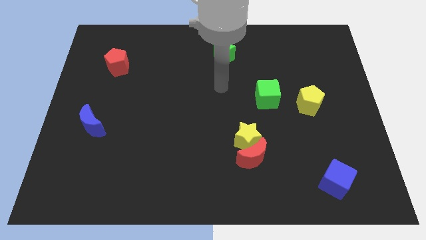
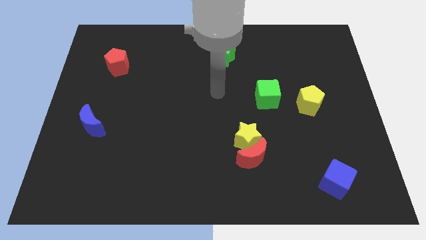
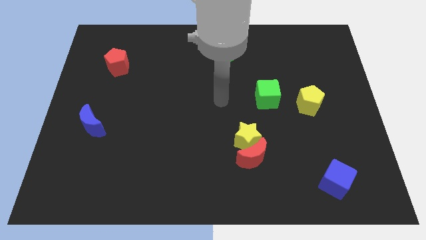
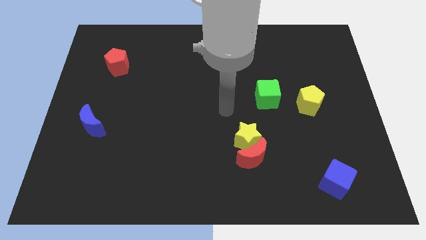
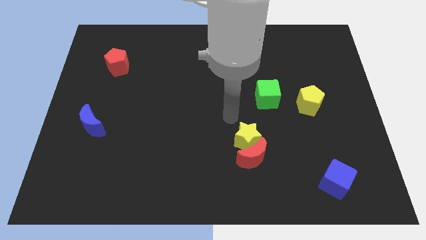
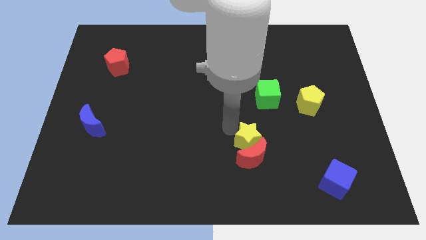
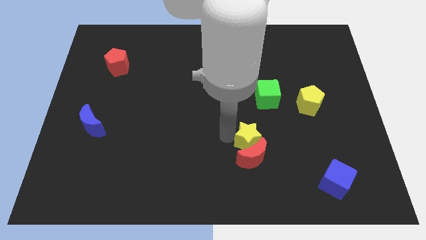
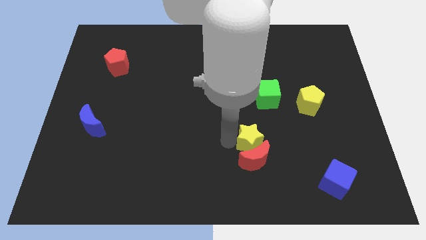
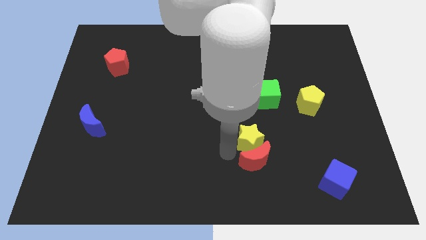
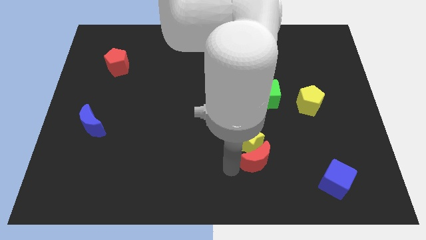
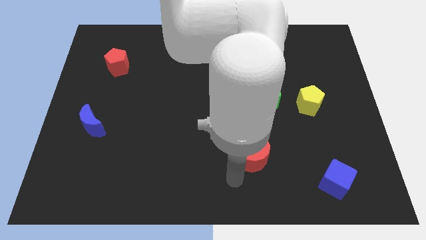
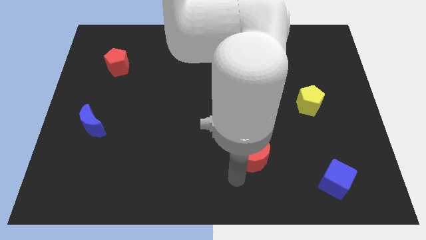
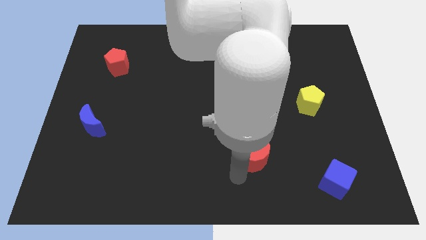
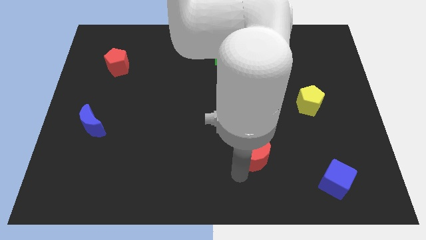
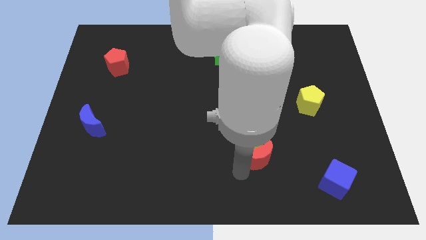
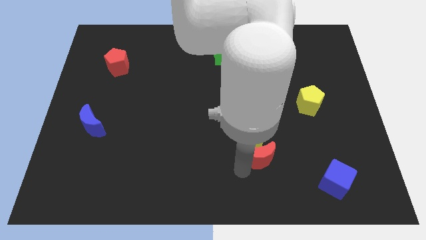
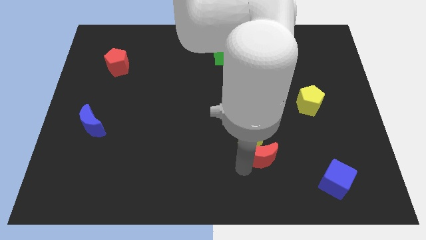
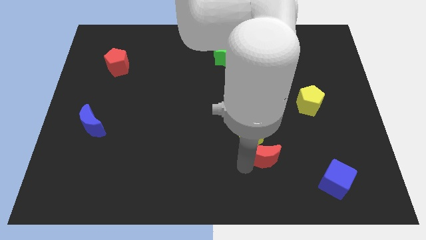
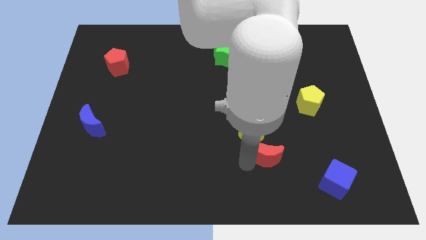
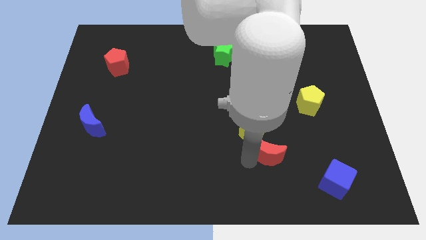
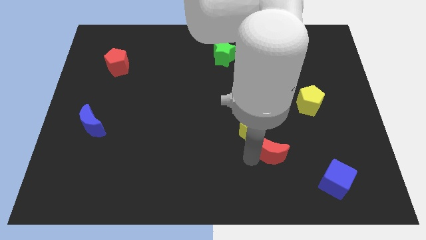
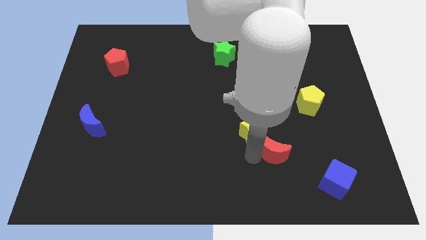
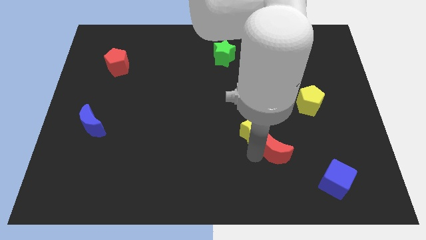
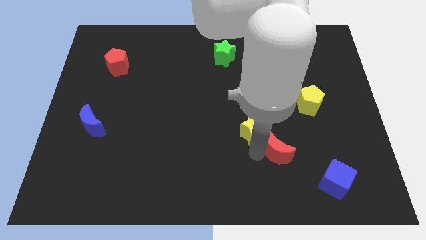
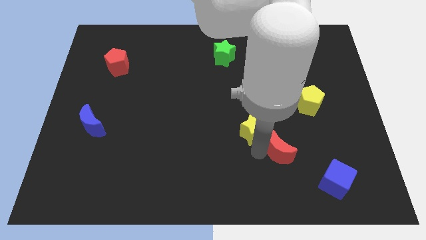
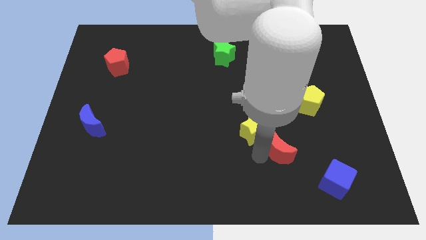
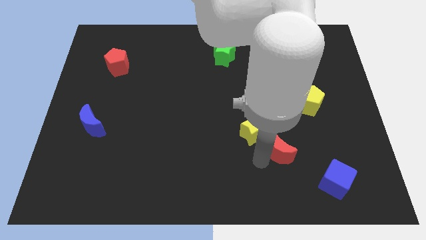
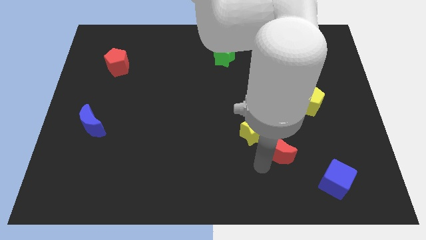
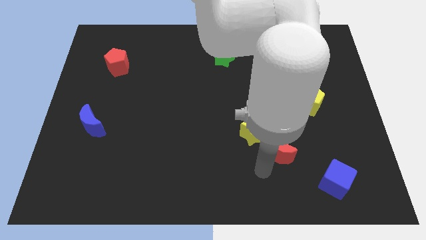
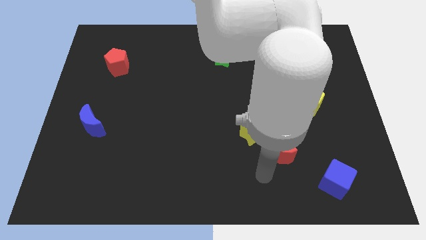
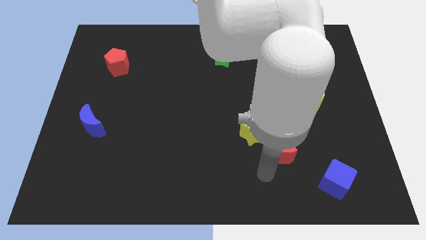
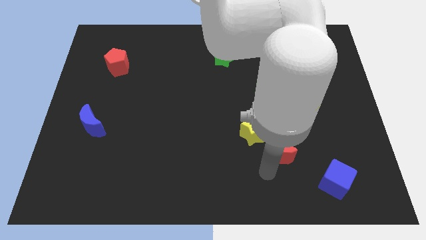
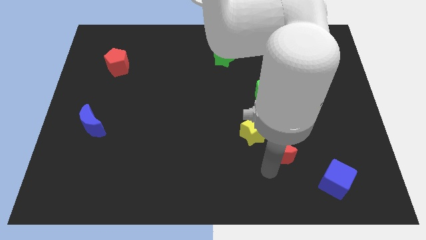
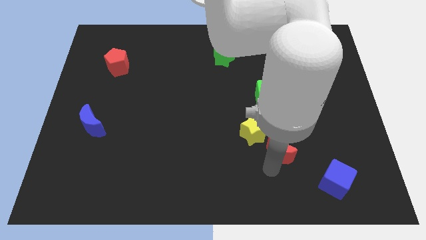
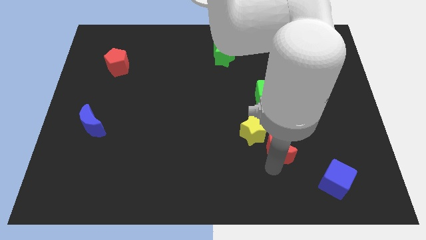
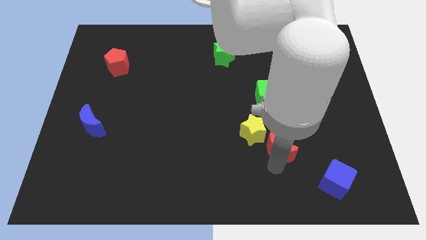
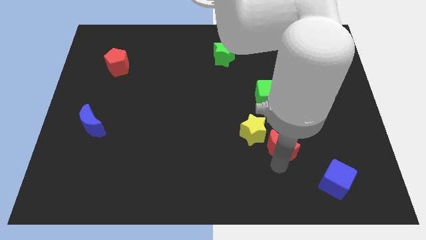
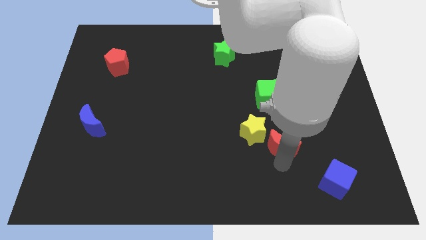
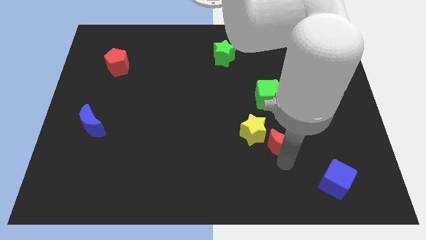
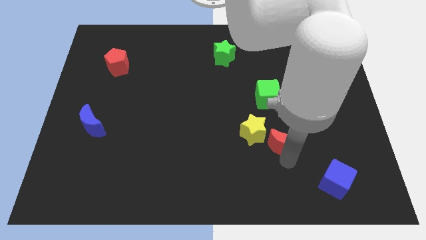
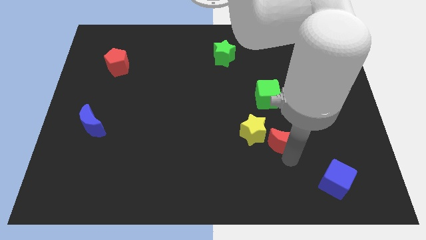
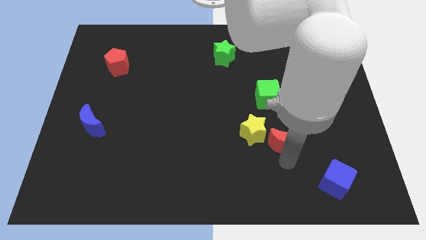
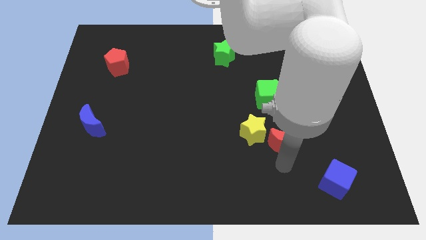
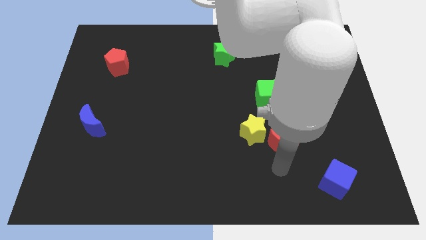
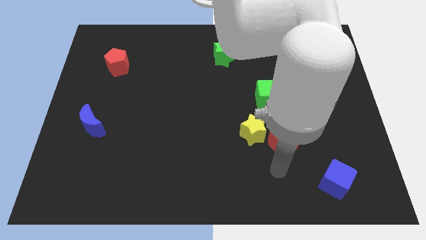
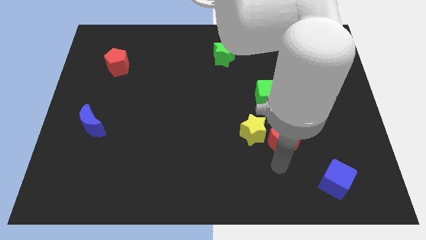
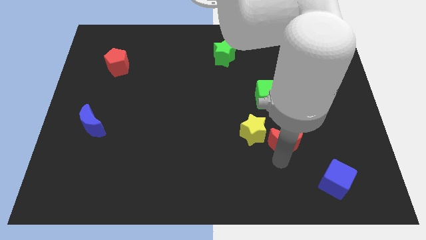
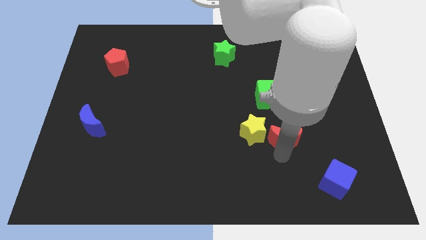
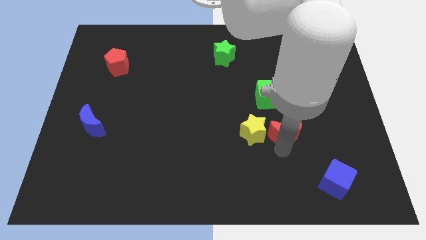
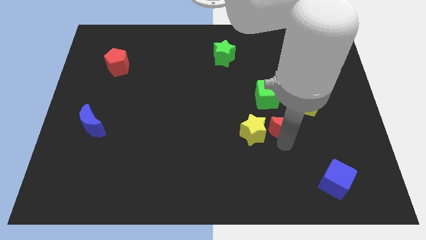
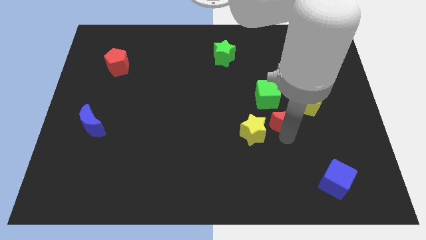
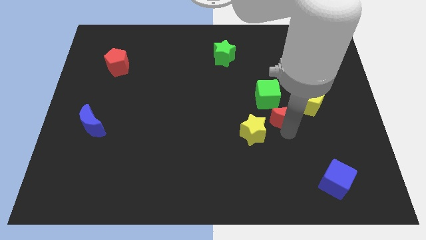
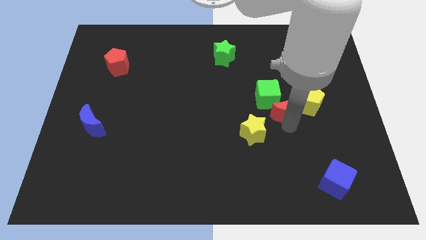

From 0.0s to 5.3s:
slide the red moon to the green cube

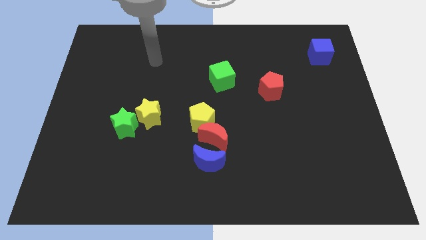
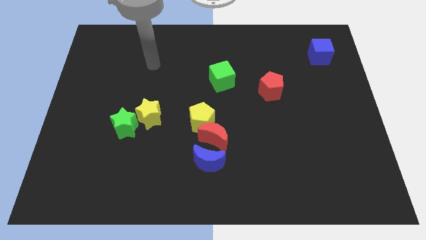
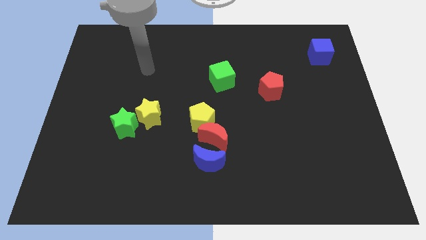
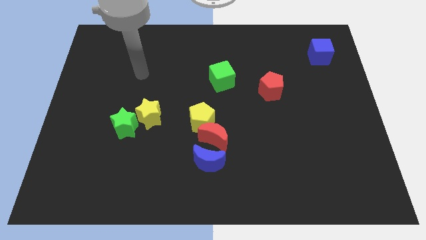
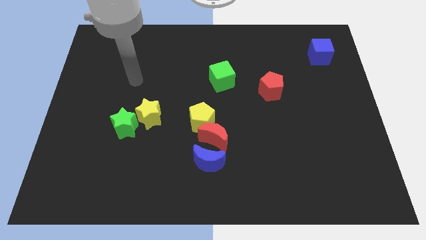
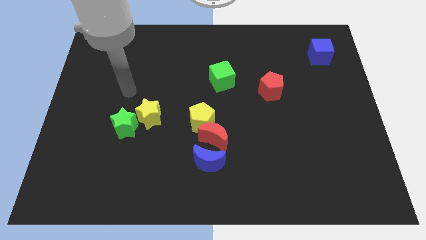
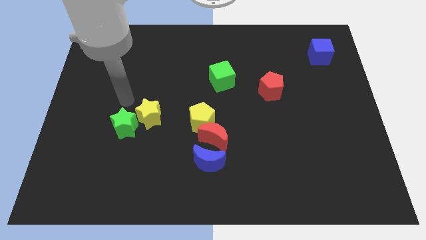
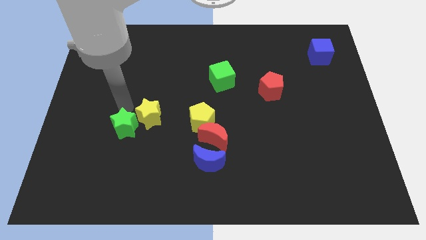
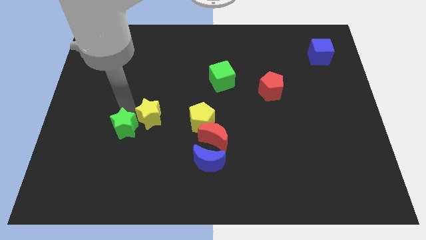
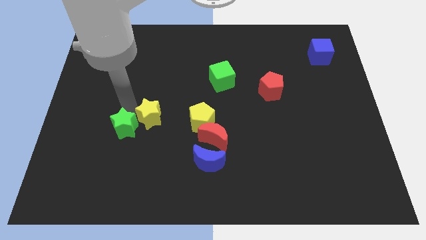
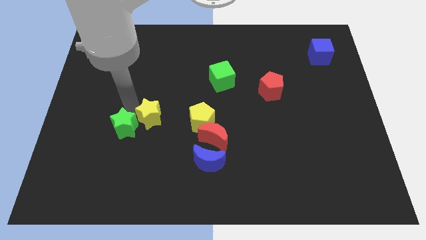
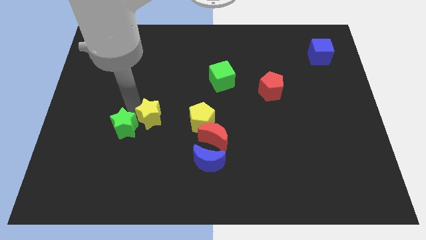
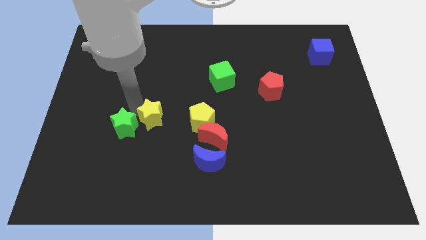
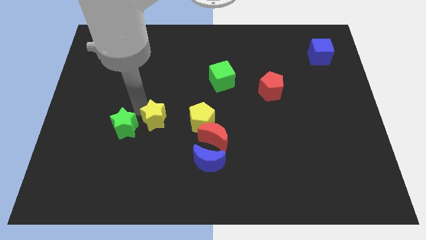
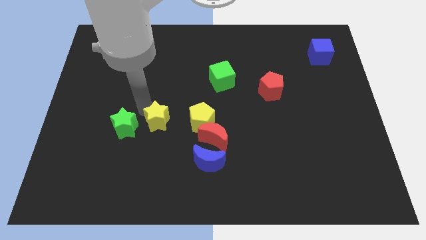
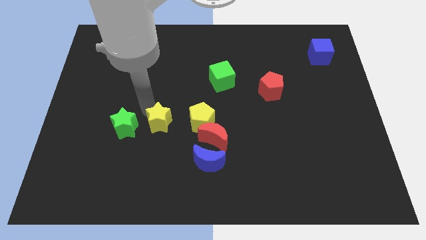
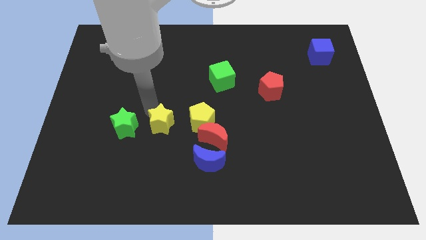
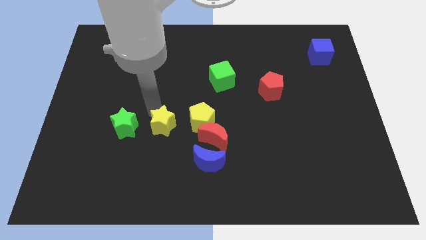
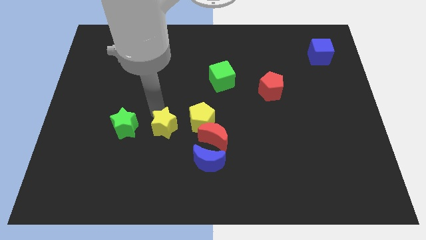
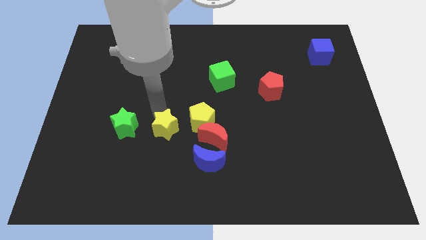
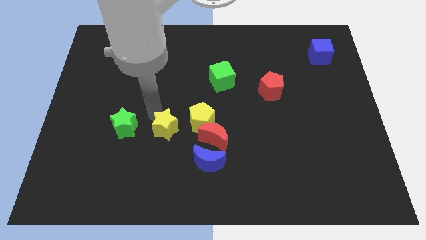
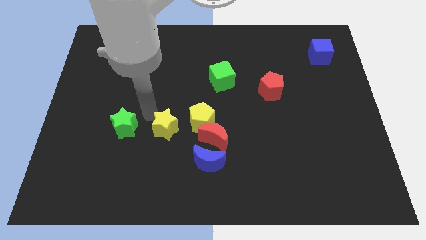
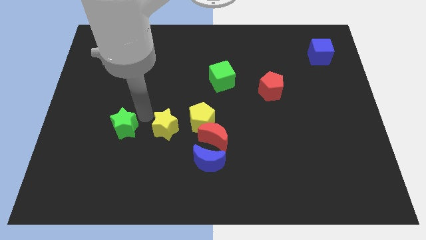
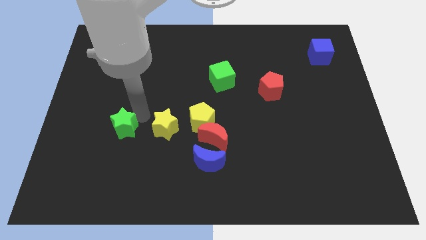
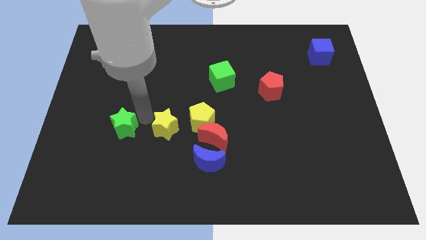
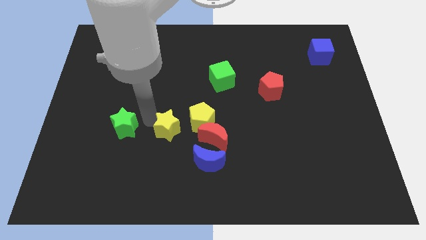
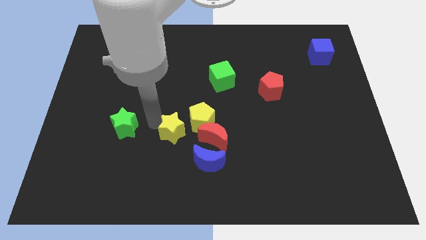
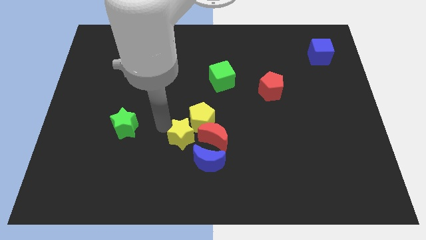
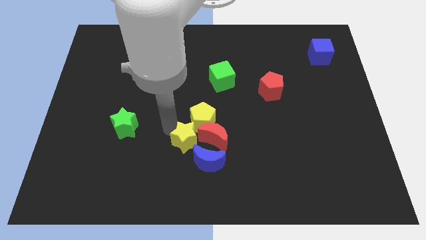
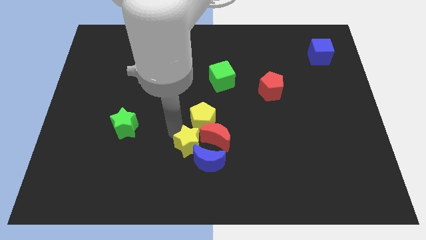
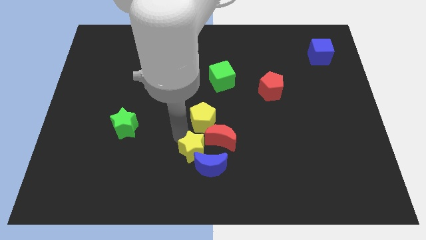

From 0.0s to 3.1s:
move the yellow star to the blue moon
